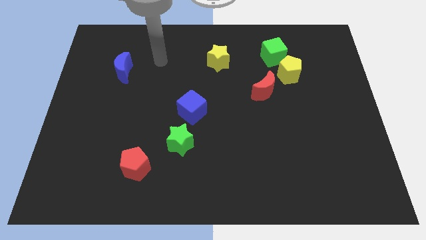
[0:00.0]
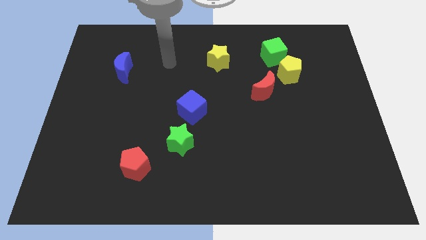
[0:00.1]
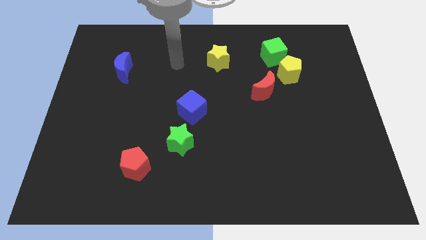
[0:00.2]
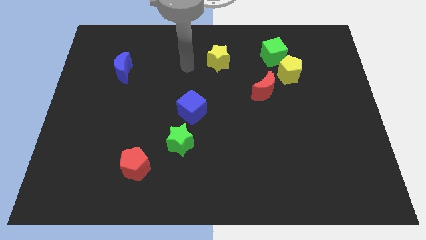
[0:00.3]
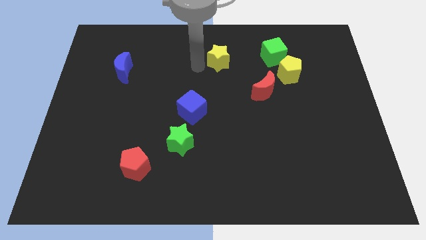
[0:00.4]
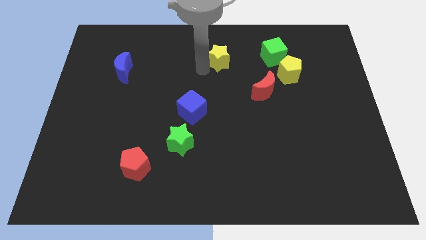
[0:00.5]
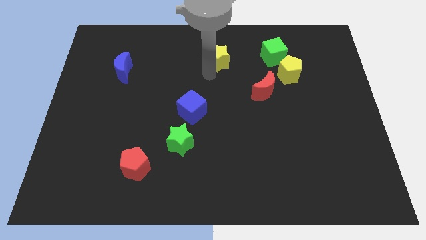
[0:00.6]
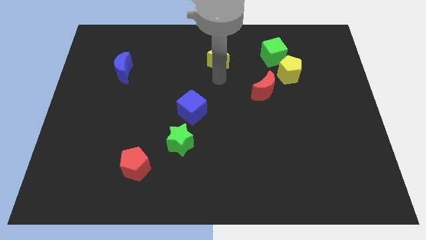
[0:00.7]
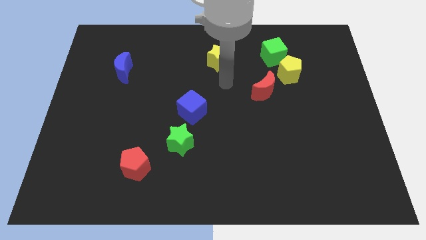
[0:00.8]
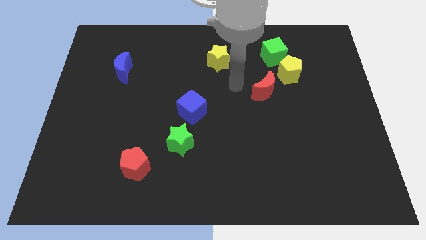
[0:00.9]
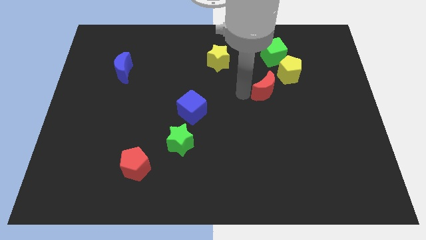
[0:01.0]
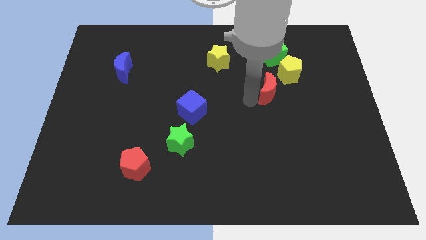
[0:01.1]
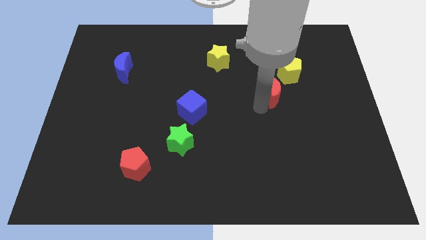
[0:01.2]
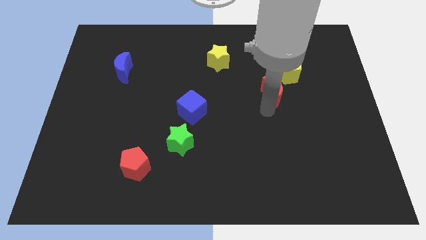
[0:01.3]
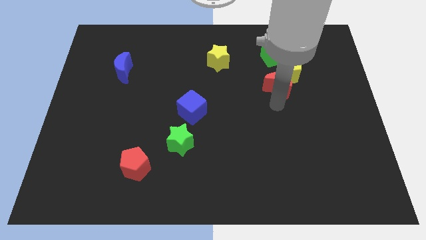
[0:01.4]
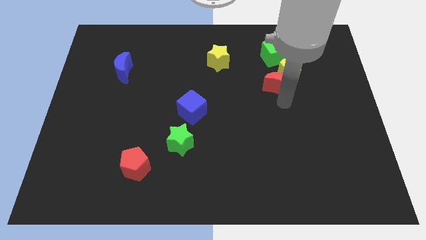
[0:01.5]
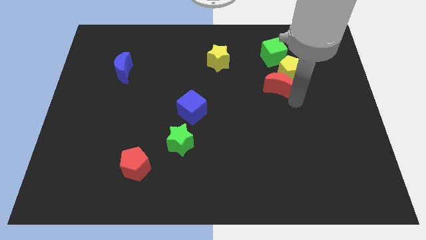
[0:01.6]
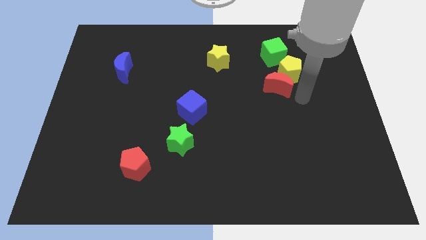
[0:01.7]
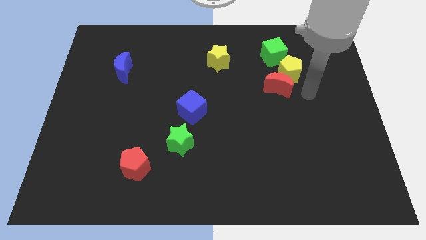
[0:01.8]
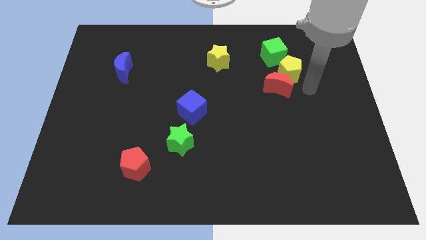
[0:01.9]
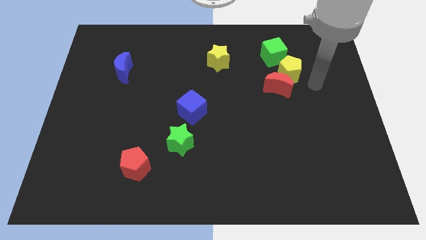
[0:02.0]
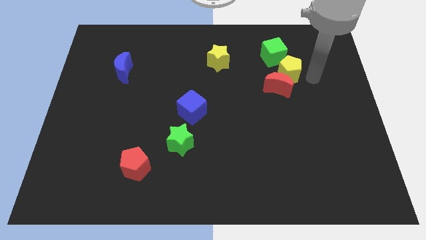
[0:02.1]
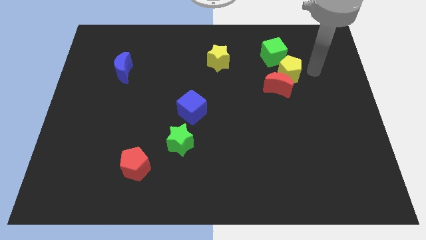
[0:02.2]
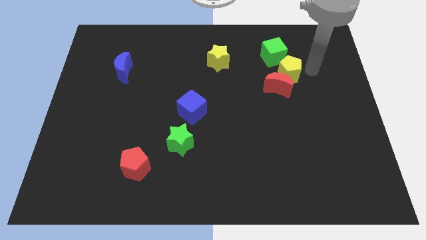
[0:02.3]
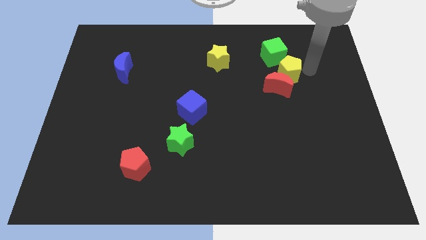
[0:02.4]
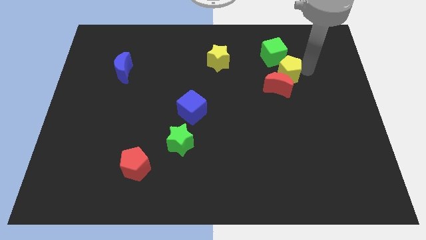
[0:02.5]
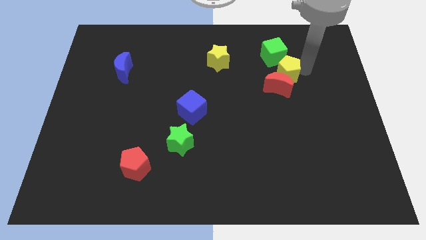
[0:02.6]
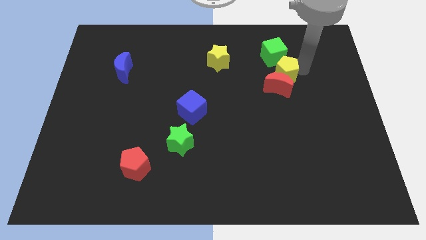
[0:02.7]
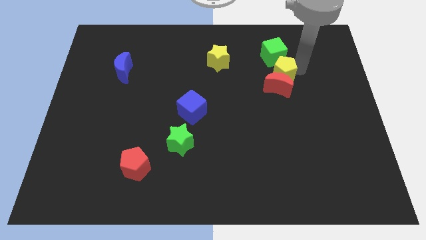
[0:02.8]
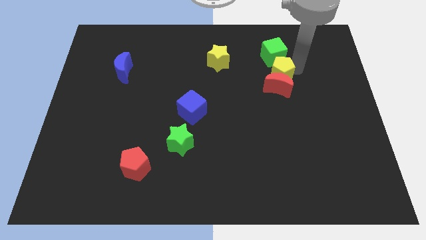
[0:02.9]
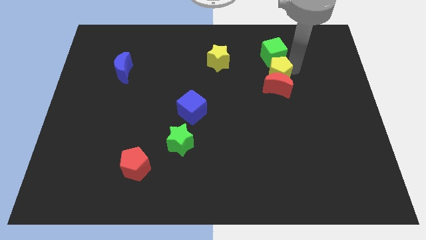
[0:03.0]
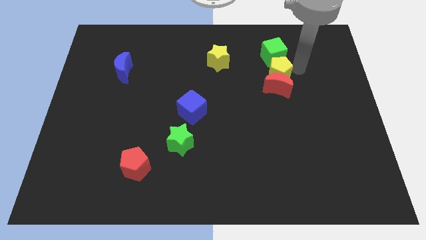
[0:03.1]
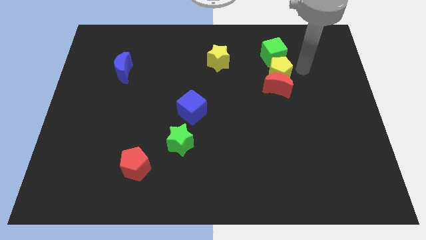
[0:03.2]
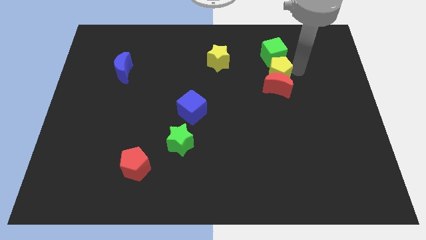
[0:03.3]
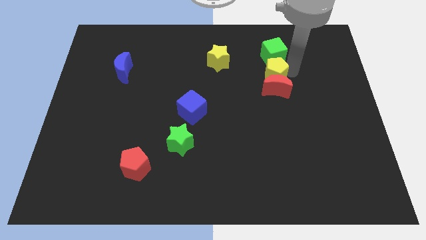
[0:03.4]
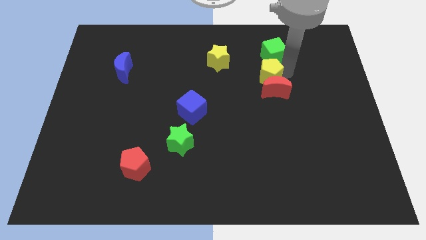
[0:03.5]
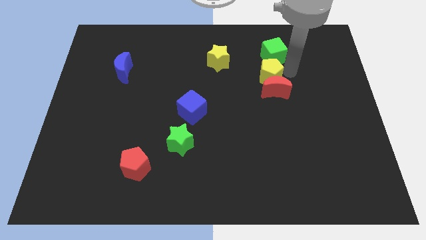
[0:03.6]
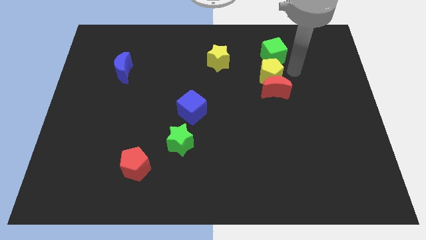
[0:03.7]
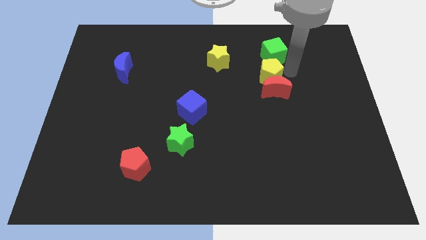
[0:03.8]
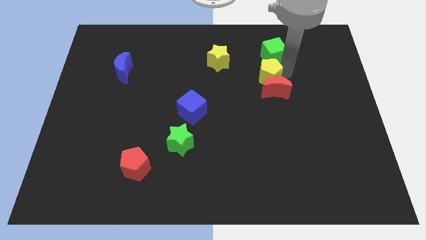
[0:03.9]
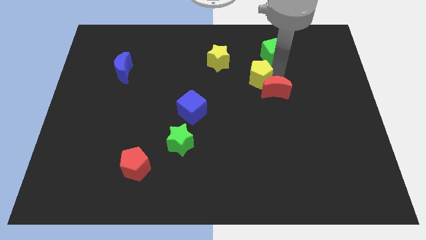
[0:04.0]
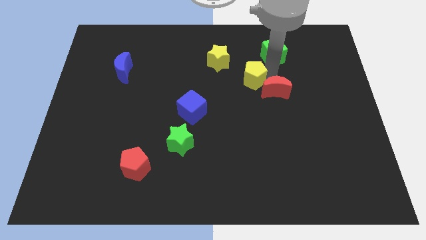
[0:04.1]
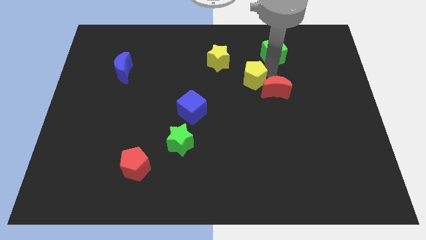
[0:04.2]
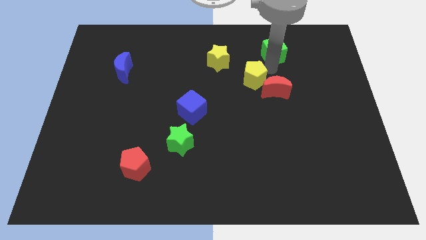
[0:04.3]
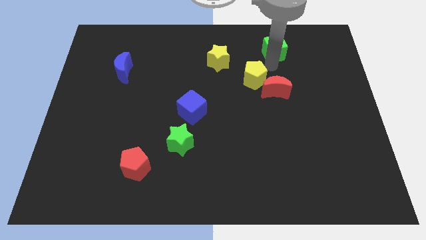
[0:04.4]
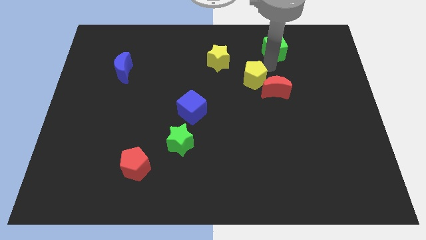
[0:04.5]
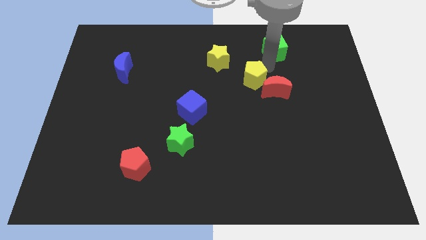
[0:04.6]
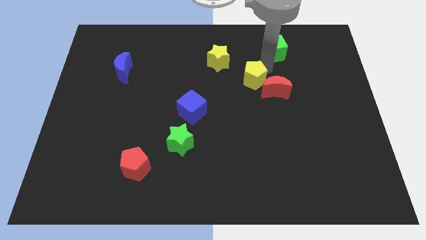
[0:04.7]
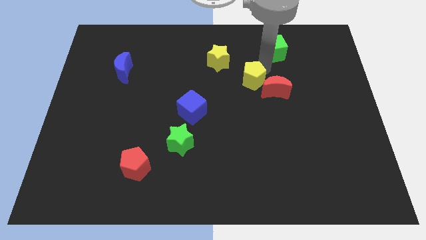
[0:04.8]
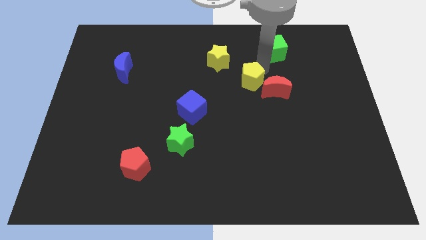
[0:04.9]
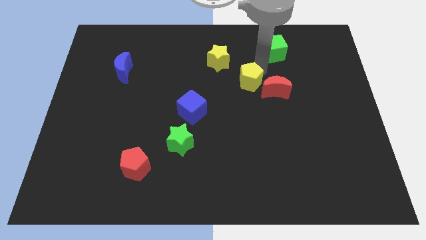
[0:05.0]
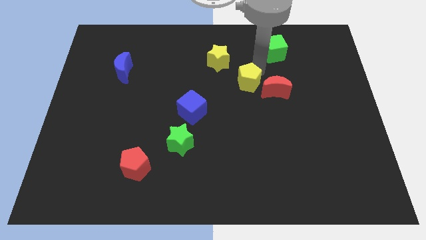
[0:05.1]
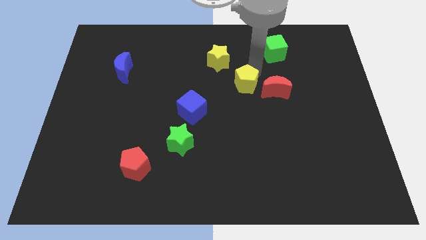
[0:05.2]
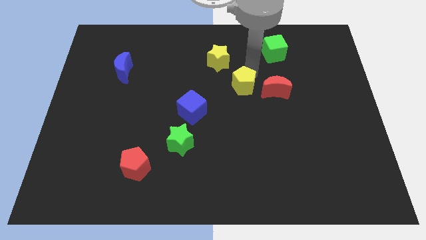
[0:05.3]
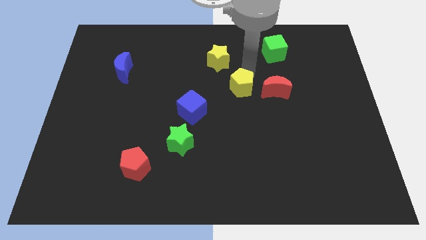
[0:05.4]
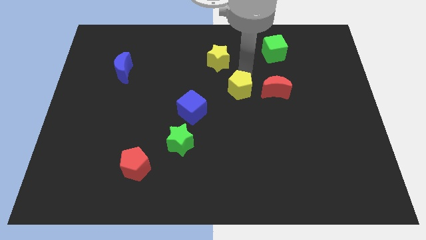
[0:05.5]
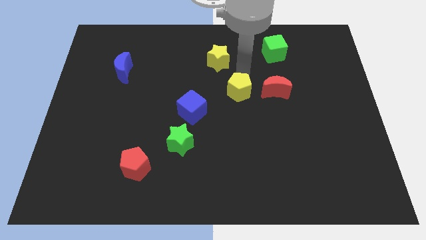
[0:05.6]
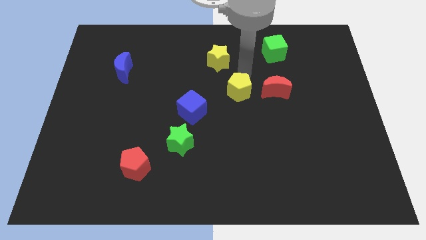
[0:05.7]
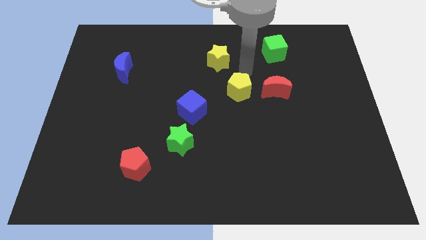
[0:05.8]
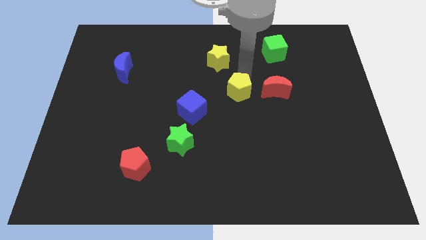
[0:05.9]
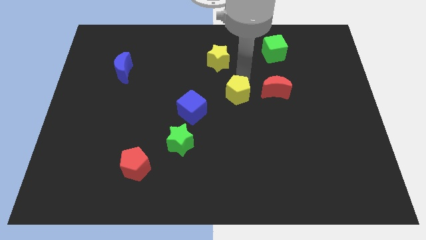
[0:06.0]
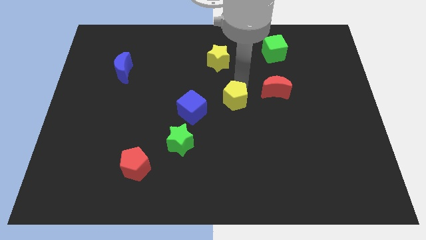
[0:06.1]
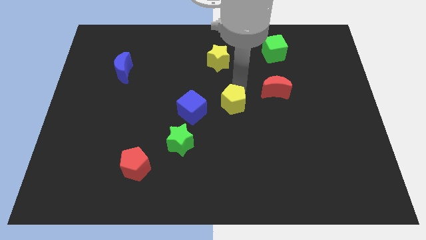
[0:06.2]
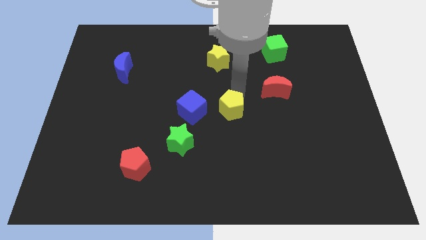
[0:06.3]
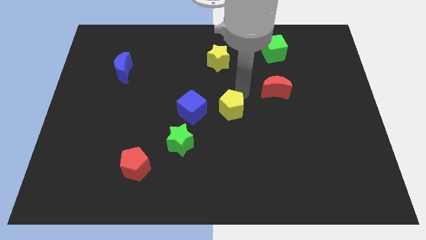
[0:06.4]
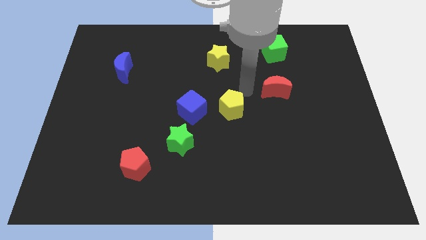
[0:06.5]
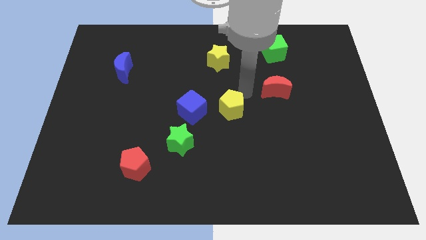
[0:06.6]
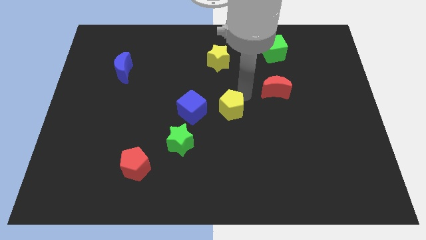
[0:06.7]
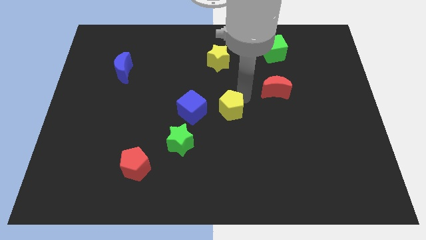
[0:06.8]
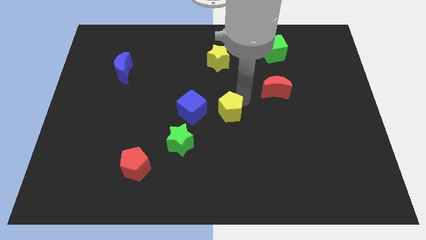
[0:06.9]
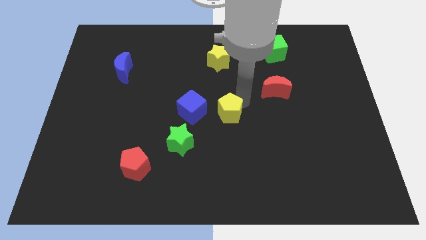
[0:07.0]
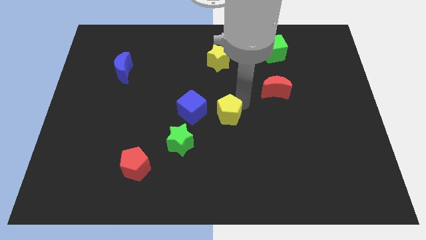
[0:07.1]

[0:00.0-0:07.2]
slide the yellow pentagon down and then to the left

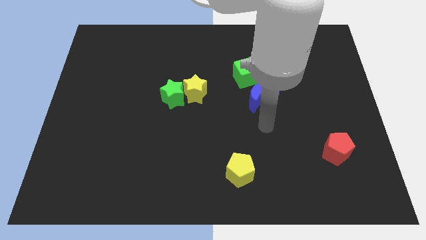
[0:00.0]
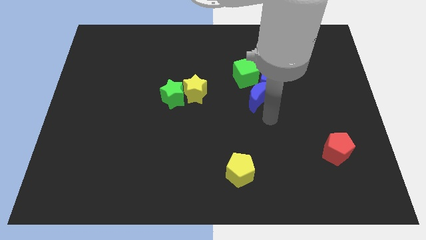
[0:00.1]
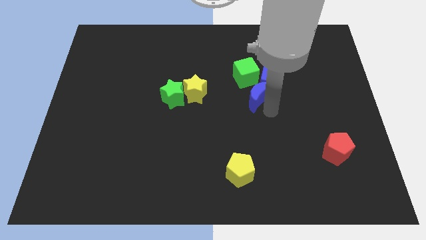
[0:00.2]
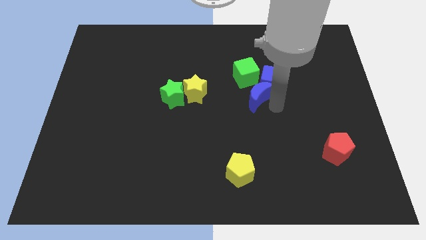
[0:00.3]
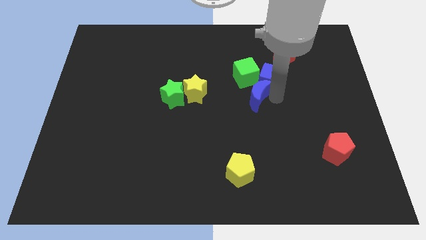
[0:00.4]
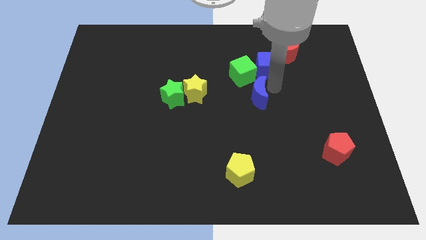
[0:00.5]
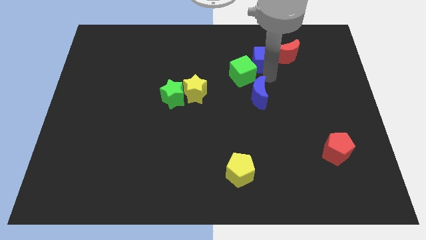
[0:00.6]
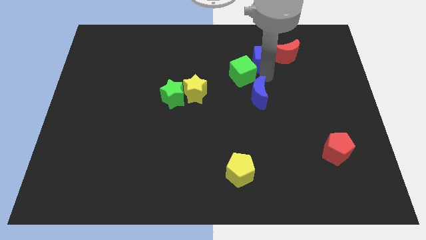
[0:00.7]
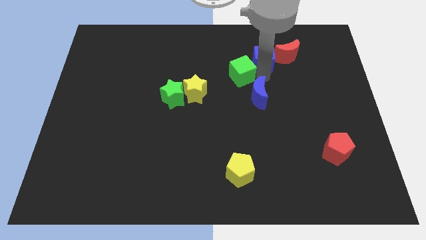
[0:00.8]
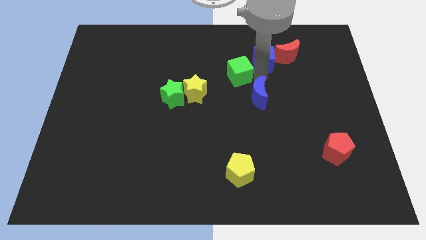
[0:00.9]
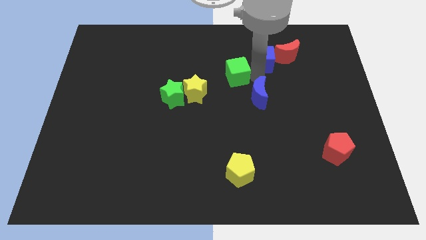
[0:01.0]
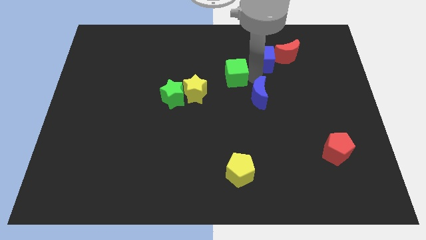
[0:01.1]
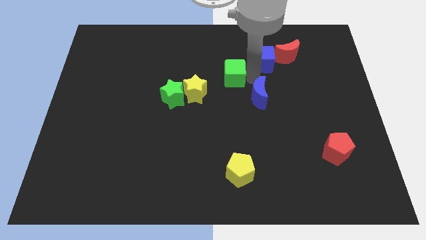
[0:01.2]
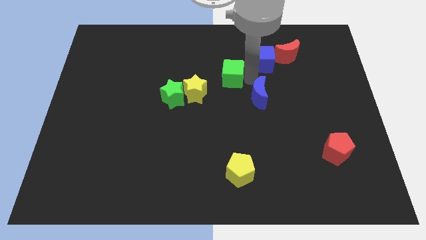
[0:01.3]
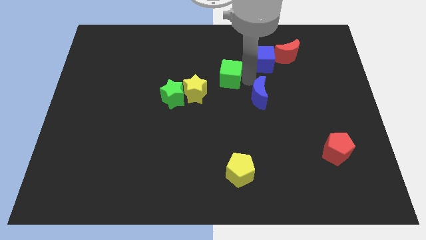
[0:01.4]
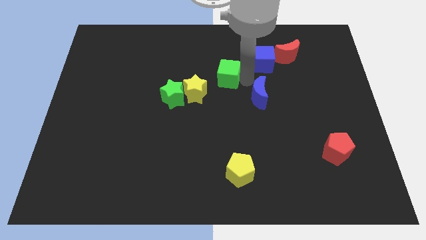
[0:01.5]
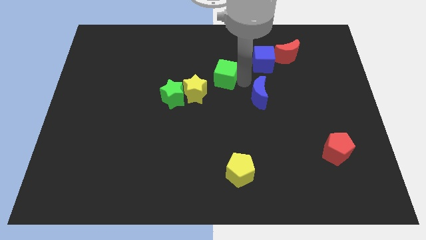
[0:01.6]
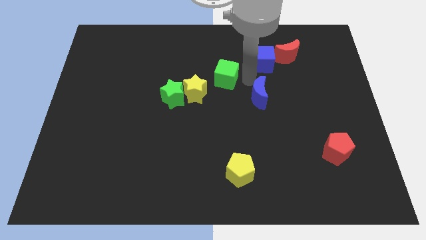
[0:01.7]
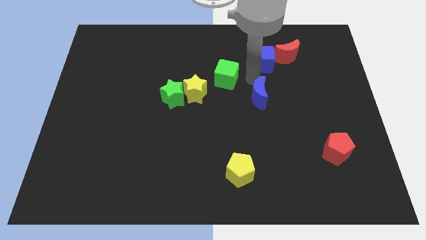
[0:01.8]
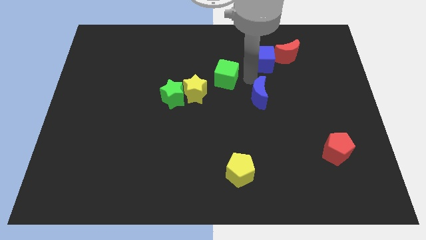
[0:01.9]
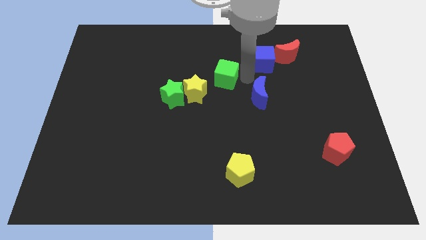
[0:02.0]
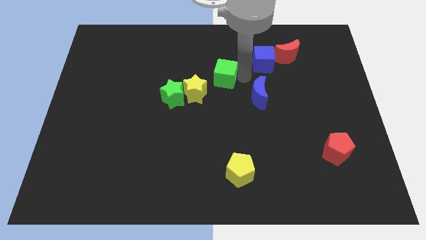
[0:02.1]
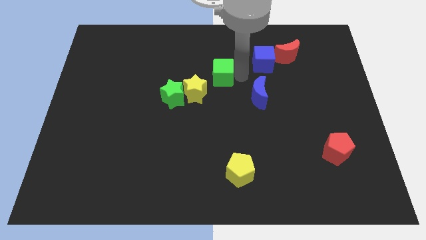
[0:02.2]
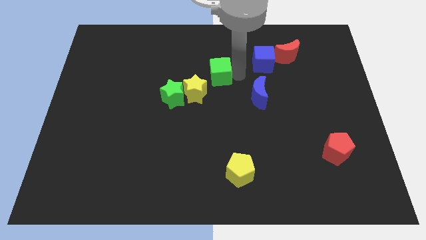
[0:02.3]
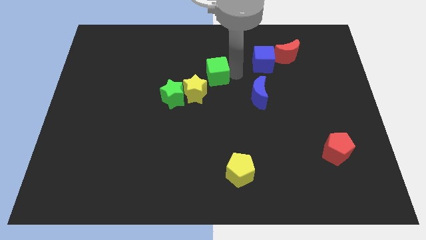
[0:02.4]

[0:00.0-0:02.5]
slightly push the green cube to the left
